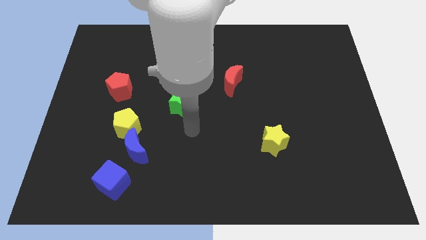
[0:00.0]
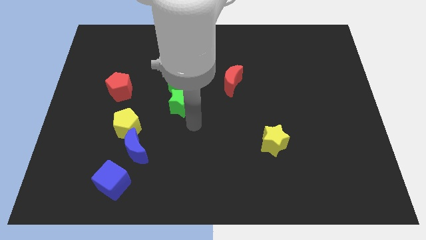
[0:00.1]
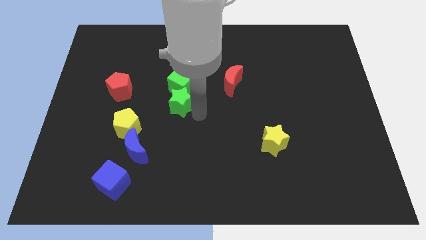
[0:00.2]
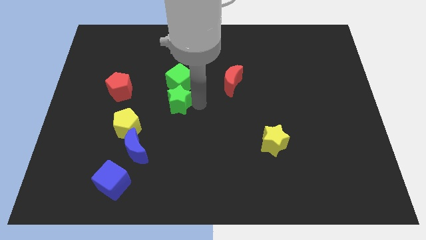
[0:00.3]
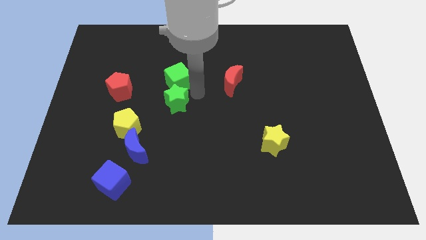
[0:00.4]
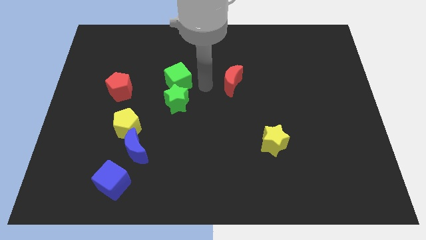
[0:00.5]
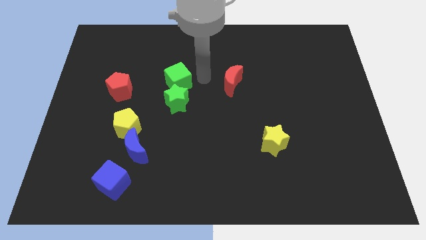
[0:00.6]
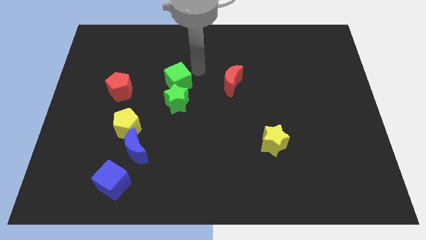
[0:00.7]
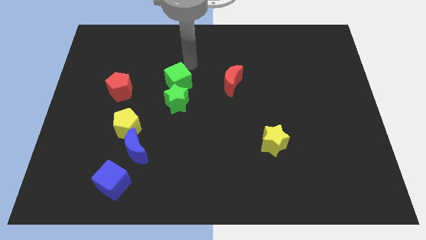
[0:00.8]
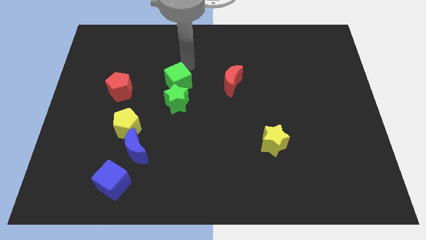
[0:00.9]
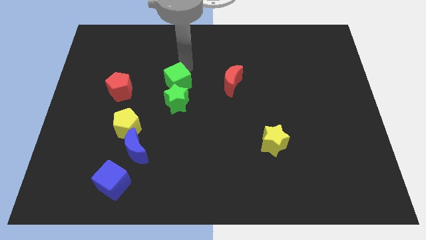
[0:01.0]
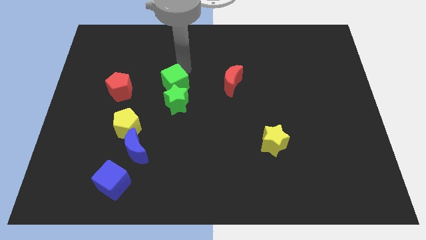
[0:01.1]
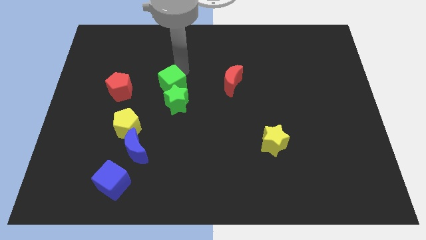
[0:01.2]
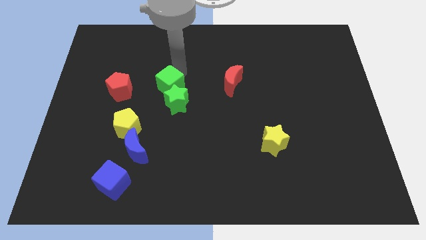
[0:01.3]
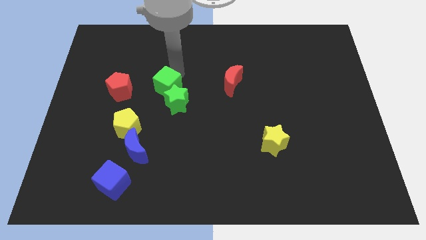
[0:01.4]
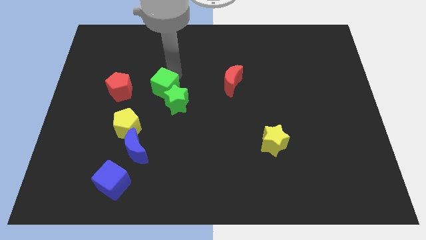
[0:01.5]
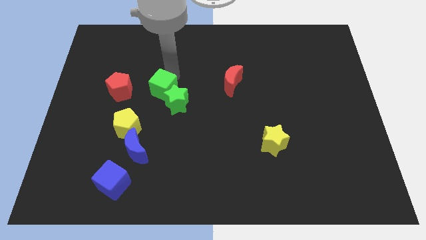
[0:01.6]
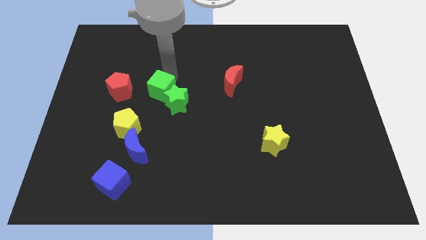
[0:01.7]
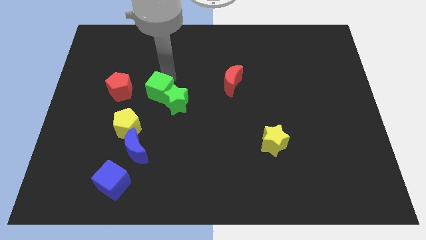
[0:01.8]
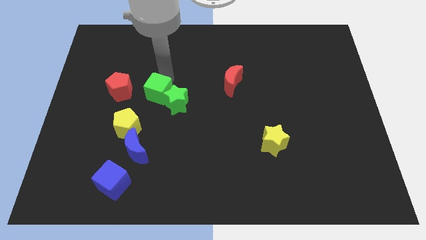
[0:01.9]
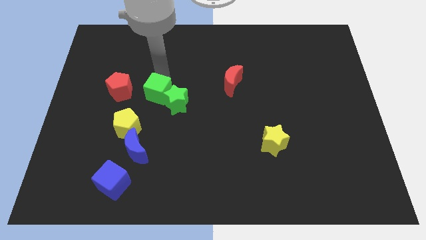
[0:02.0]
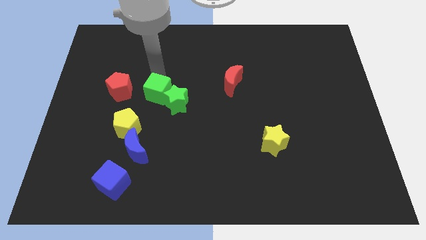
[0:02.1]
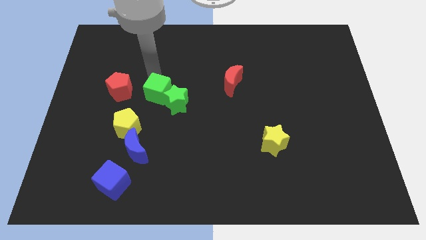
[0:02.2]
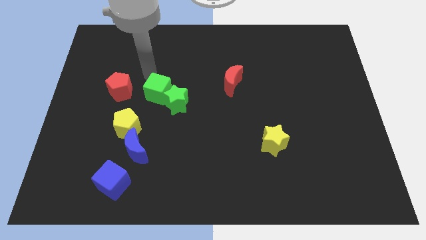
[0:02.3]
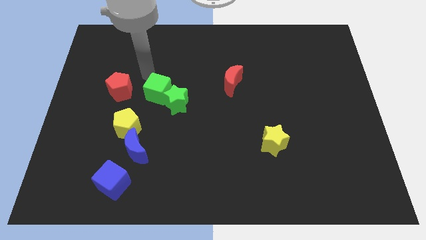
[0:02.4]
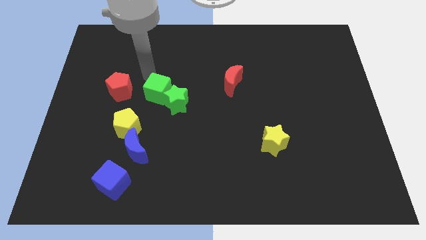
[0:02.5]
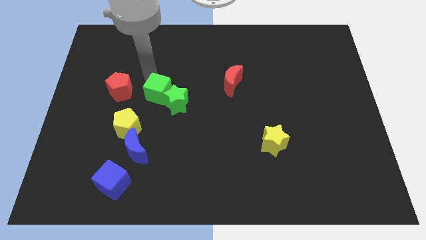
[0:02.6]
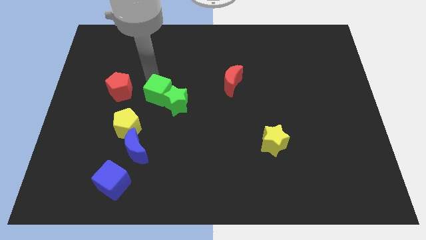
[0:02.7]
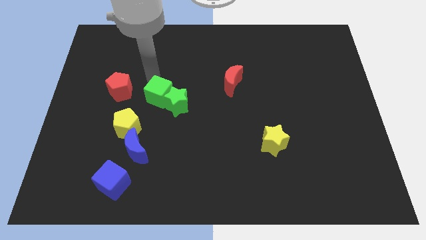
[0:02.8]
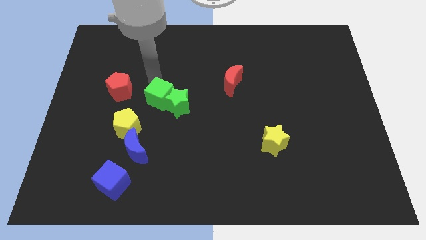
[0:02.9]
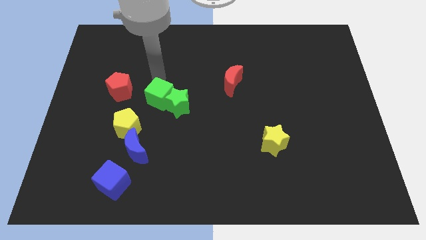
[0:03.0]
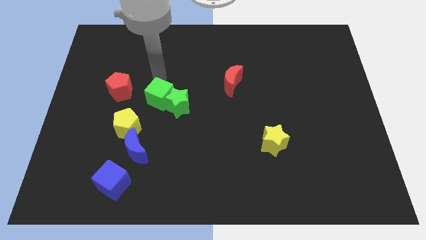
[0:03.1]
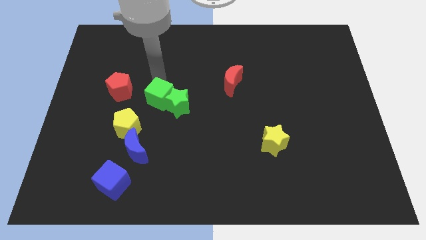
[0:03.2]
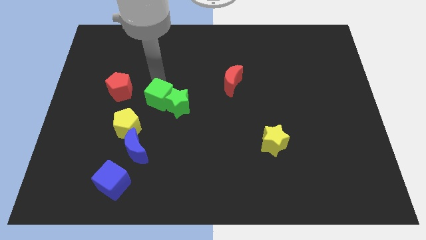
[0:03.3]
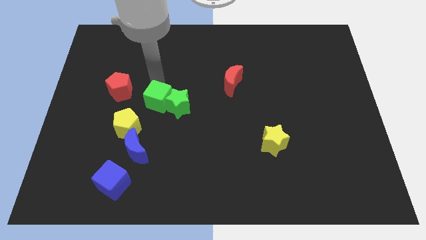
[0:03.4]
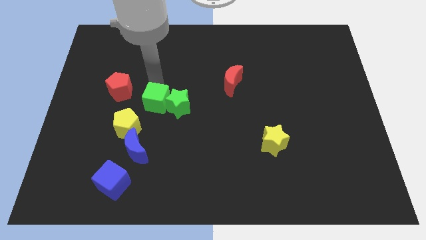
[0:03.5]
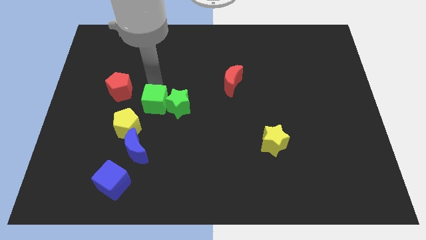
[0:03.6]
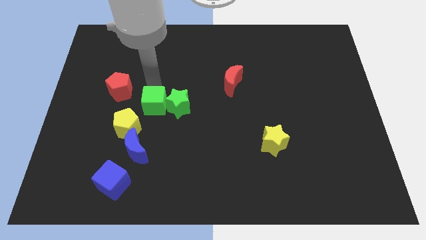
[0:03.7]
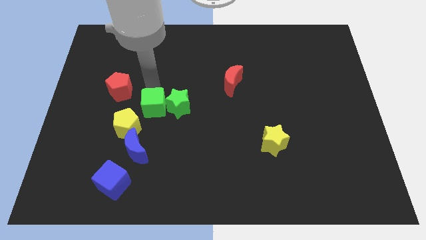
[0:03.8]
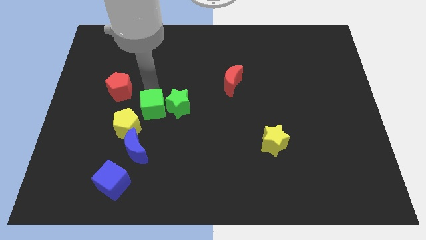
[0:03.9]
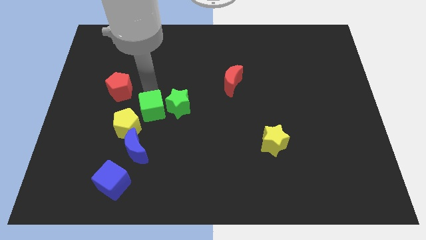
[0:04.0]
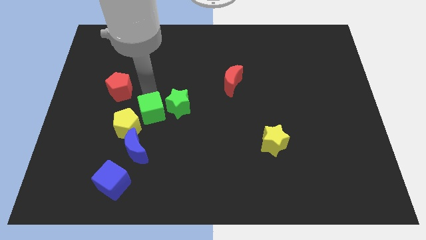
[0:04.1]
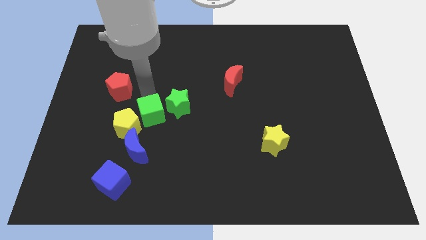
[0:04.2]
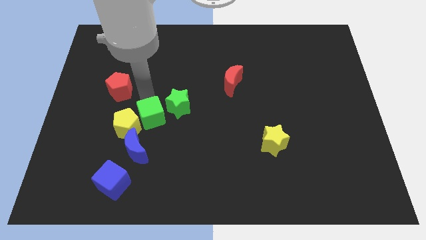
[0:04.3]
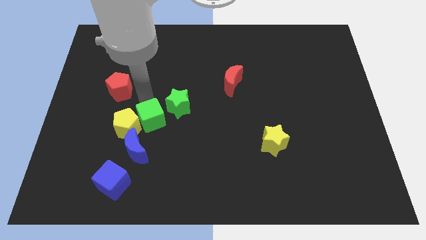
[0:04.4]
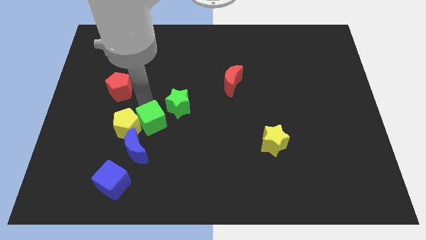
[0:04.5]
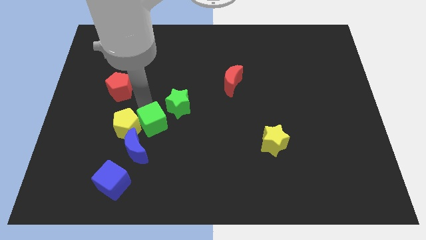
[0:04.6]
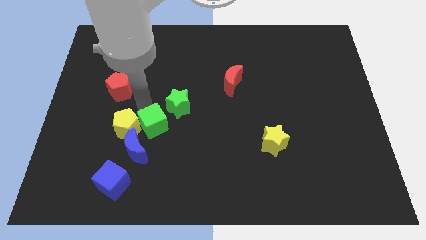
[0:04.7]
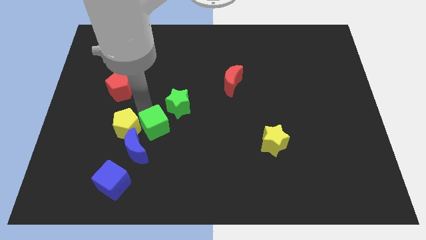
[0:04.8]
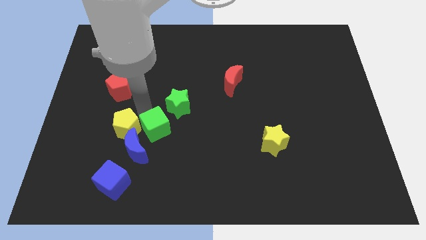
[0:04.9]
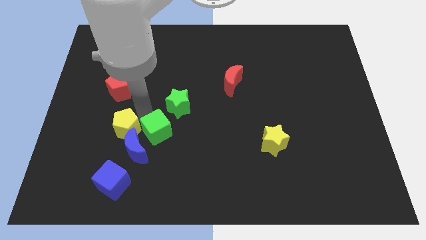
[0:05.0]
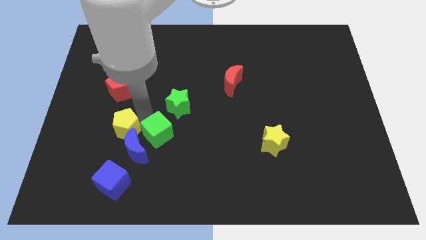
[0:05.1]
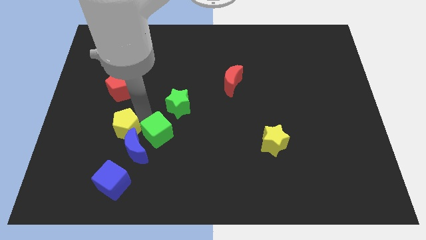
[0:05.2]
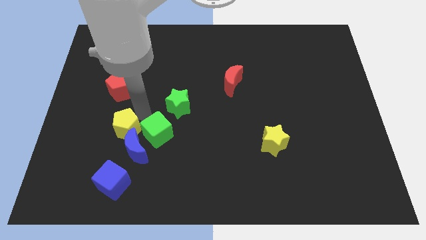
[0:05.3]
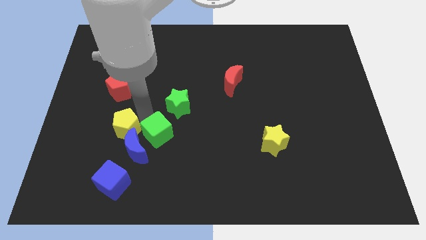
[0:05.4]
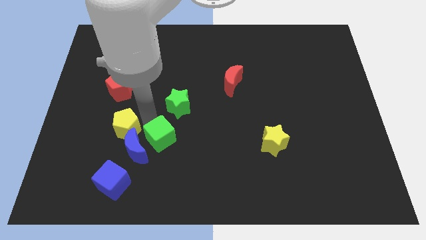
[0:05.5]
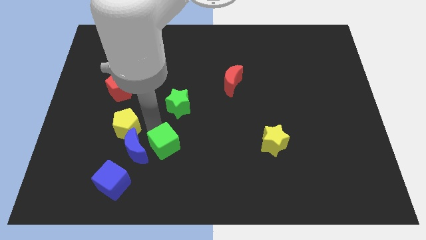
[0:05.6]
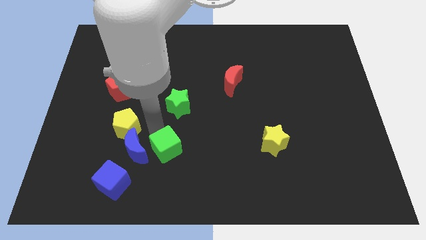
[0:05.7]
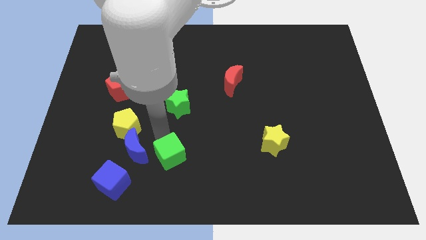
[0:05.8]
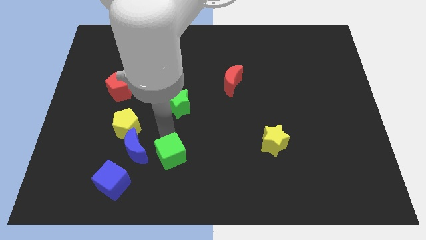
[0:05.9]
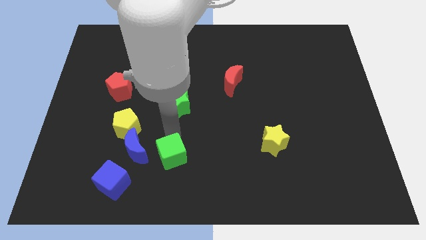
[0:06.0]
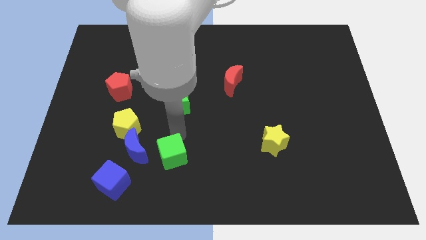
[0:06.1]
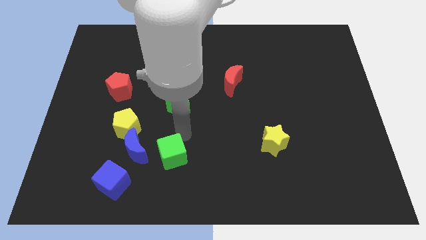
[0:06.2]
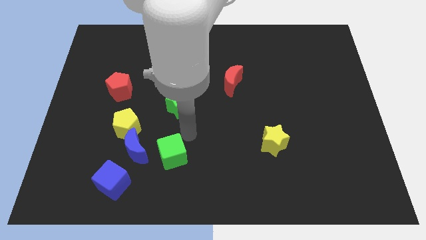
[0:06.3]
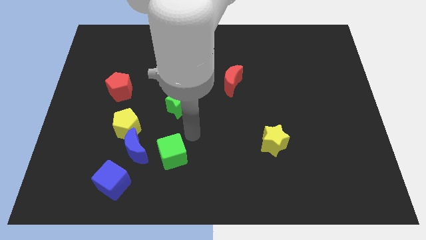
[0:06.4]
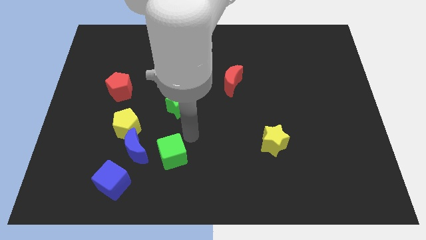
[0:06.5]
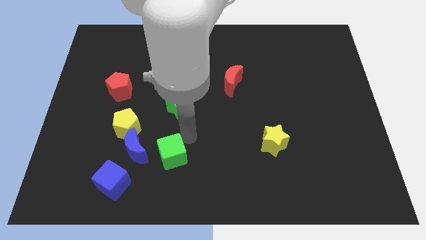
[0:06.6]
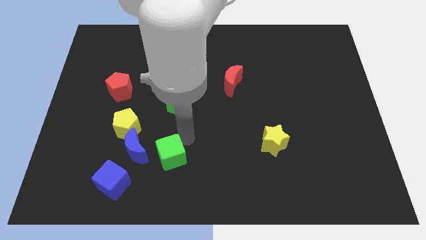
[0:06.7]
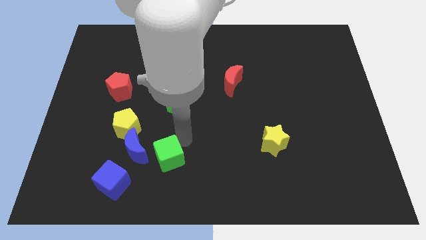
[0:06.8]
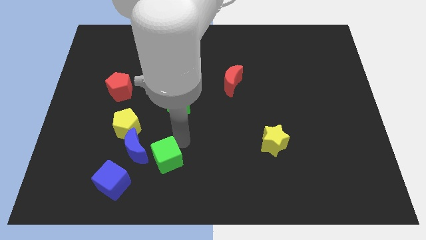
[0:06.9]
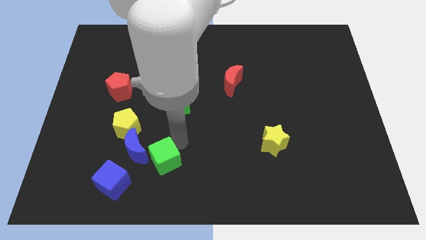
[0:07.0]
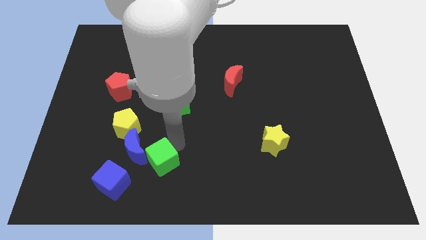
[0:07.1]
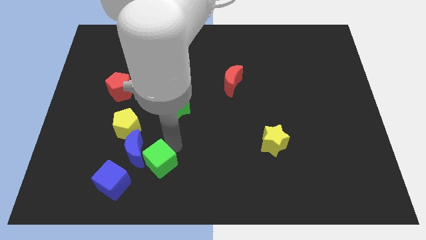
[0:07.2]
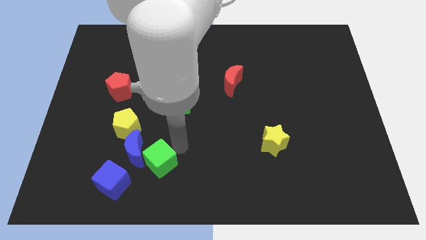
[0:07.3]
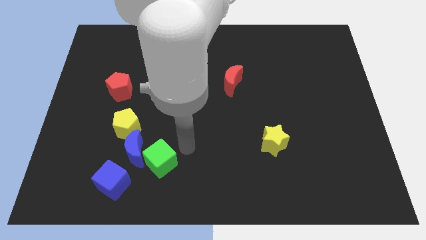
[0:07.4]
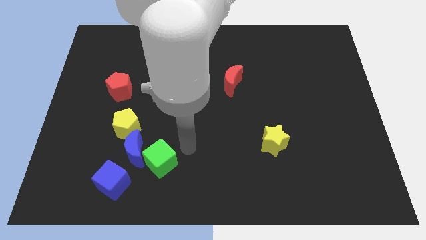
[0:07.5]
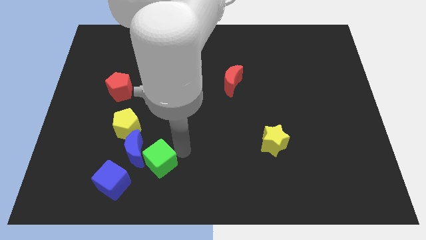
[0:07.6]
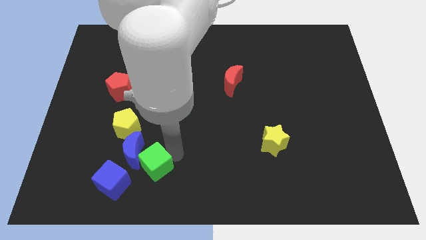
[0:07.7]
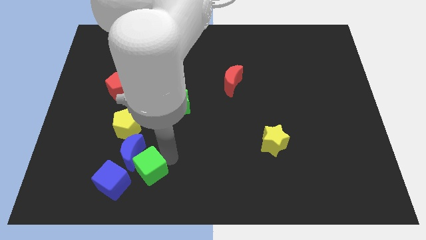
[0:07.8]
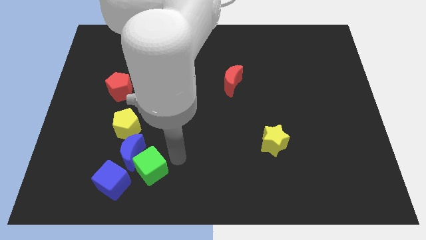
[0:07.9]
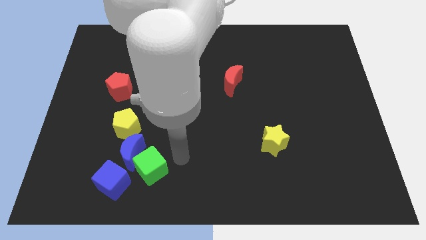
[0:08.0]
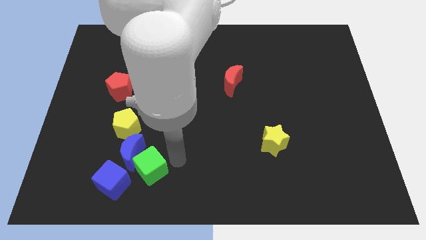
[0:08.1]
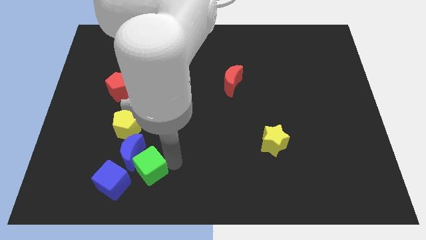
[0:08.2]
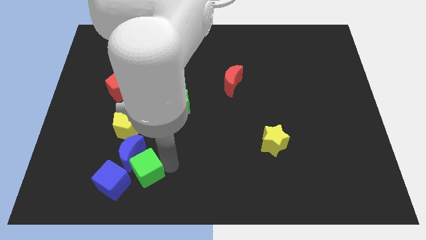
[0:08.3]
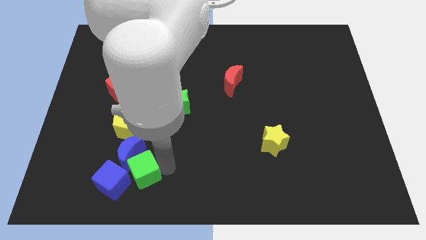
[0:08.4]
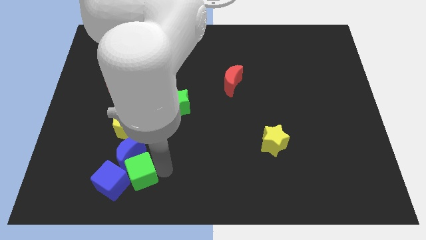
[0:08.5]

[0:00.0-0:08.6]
push the green cube to the blue cube
